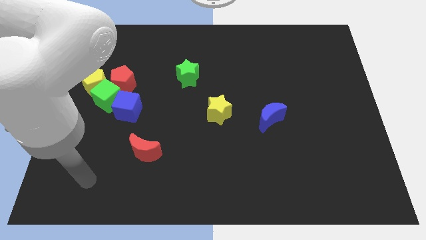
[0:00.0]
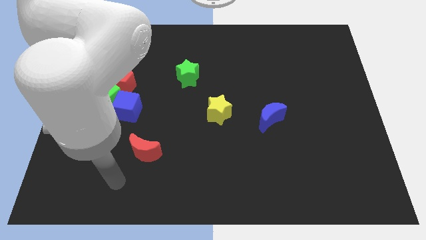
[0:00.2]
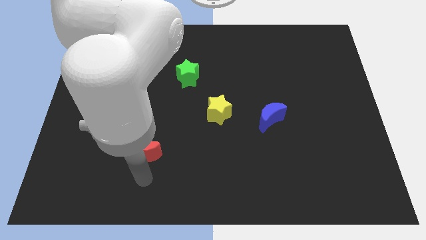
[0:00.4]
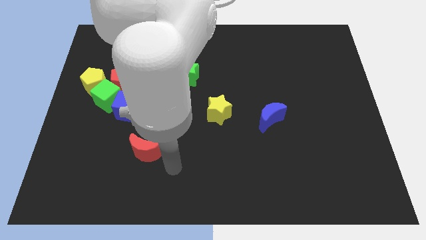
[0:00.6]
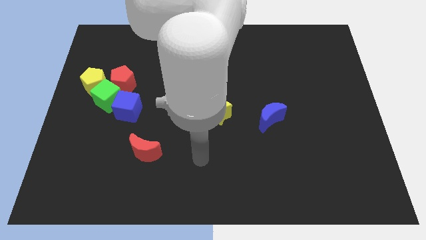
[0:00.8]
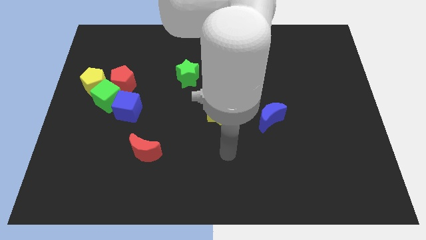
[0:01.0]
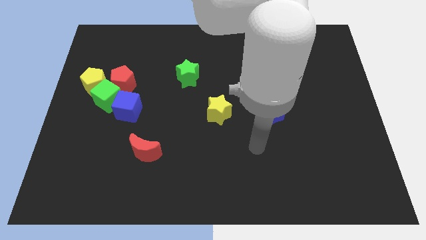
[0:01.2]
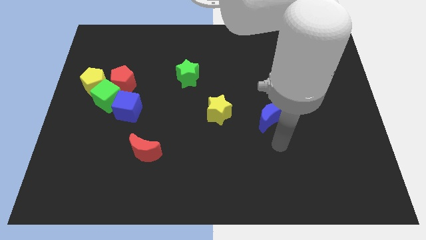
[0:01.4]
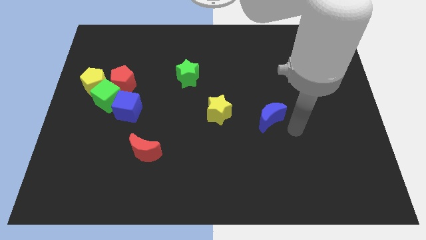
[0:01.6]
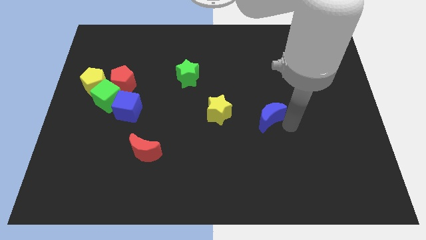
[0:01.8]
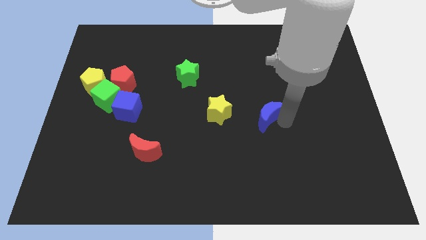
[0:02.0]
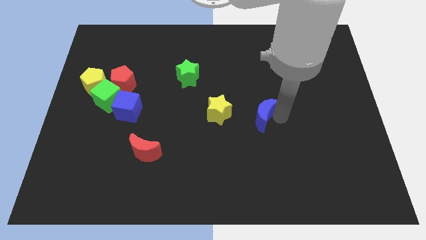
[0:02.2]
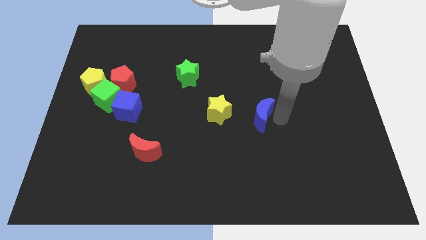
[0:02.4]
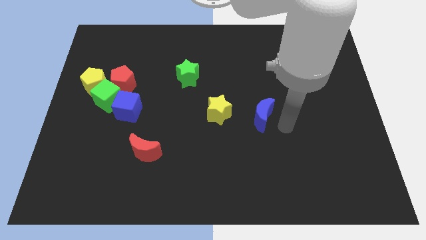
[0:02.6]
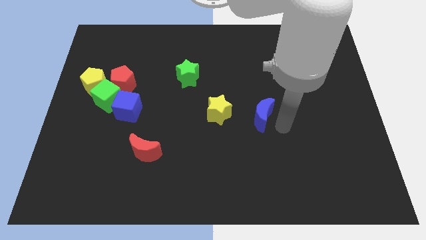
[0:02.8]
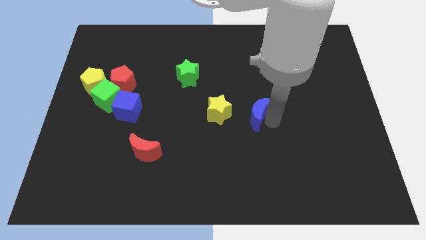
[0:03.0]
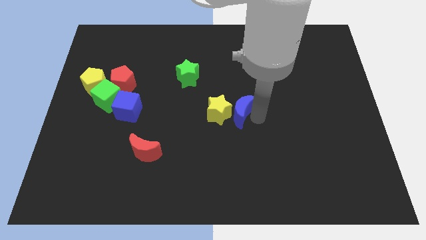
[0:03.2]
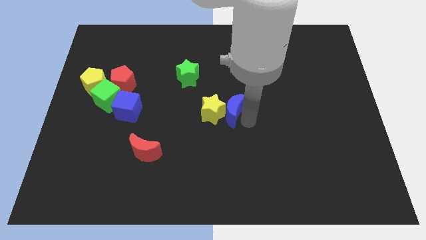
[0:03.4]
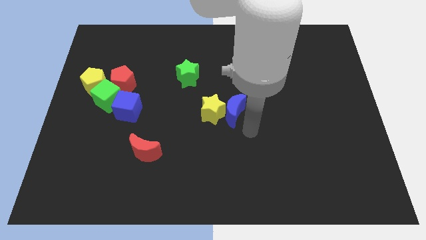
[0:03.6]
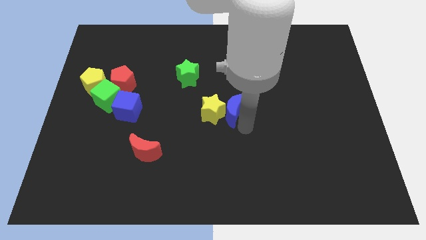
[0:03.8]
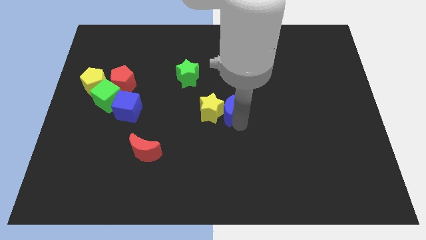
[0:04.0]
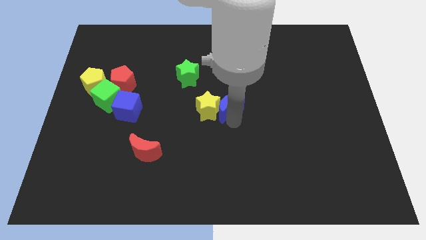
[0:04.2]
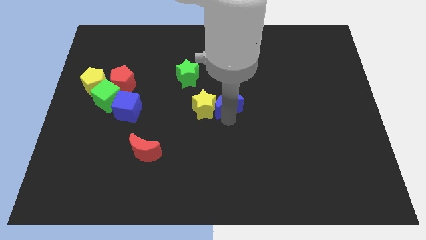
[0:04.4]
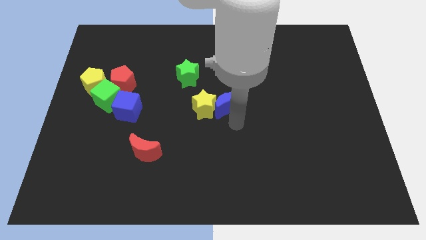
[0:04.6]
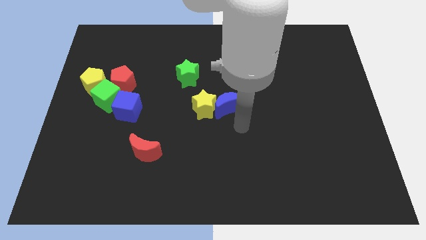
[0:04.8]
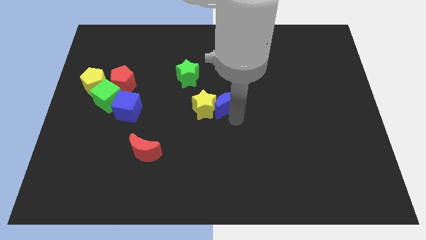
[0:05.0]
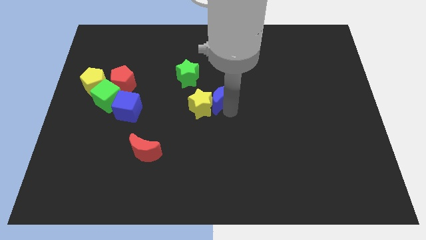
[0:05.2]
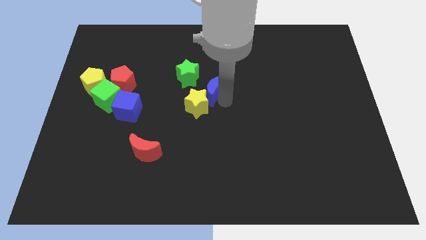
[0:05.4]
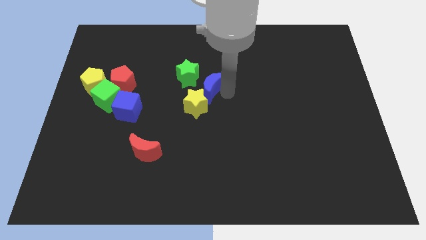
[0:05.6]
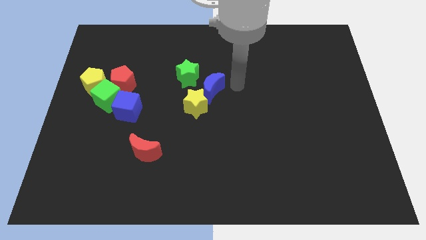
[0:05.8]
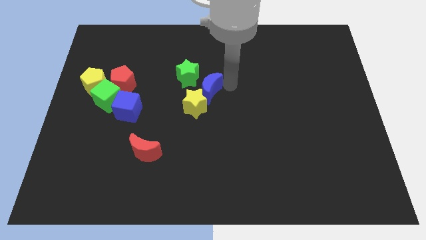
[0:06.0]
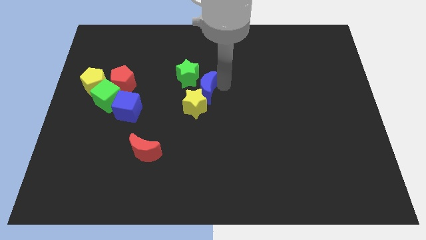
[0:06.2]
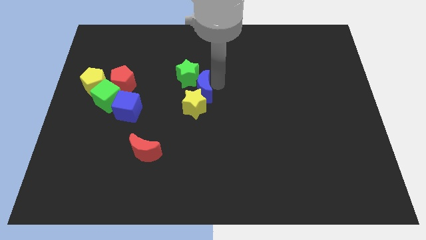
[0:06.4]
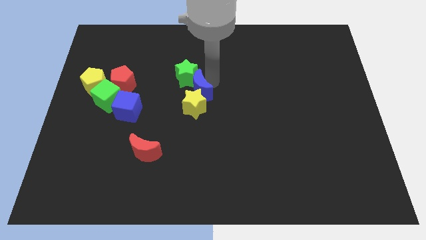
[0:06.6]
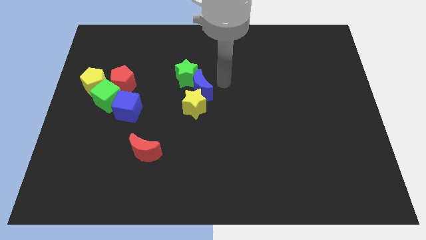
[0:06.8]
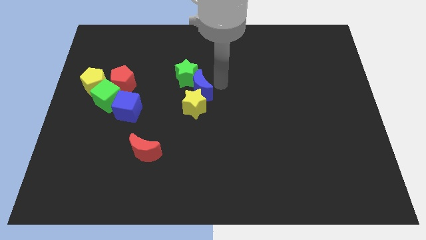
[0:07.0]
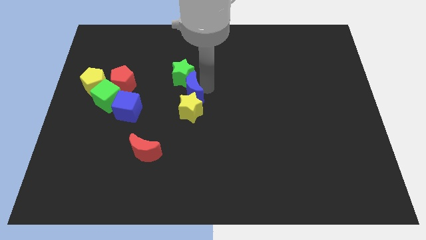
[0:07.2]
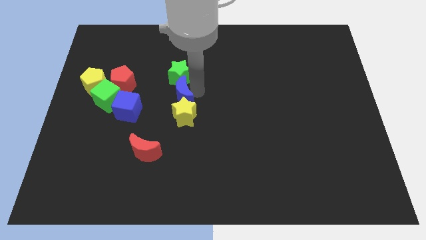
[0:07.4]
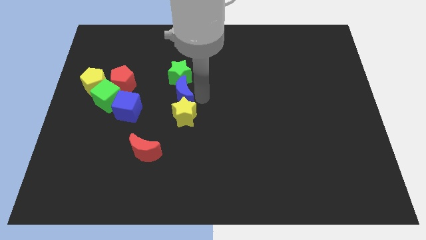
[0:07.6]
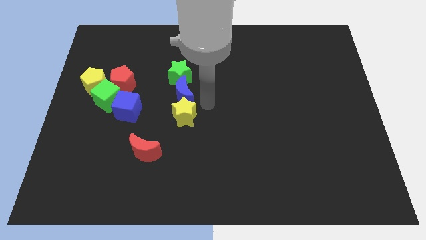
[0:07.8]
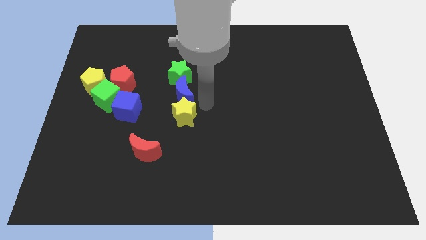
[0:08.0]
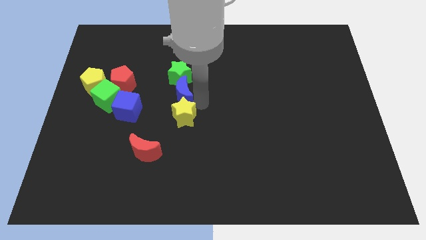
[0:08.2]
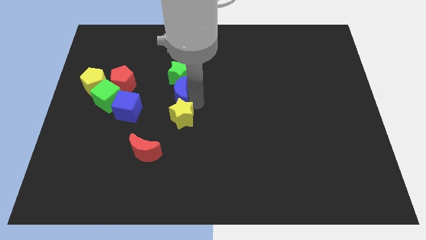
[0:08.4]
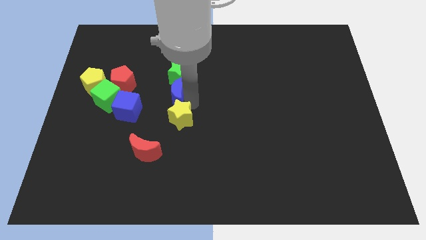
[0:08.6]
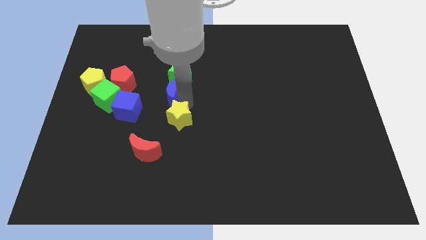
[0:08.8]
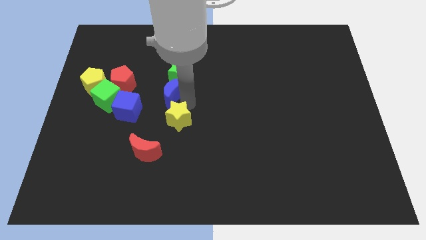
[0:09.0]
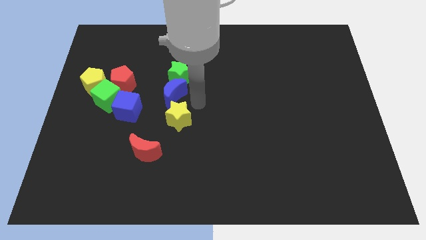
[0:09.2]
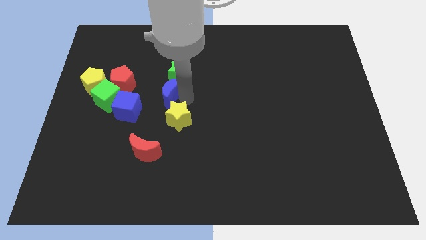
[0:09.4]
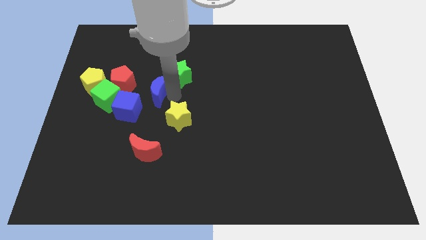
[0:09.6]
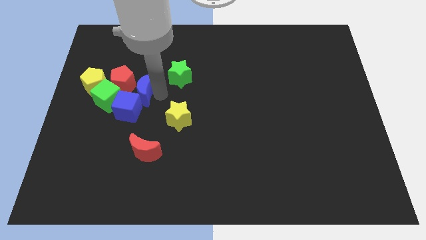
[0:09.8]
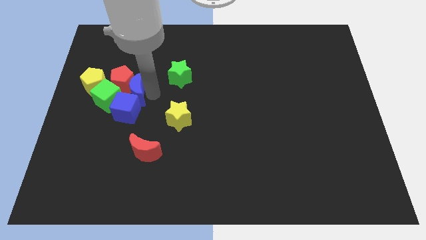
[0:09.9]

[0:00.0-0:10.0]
move the blue moon to the red pentagon

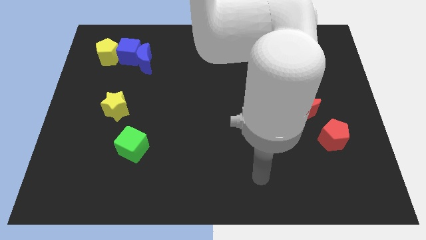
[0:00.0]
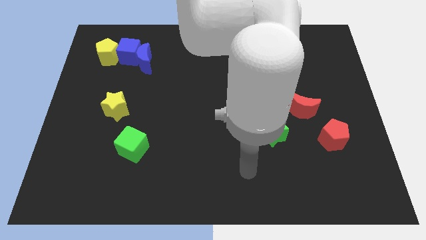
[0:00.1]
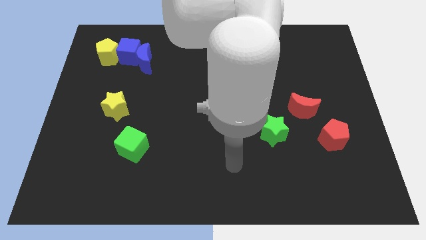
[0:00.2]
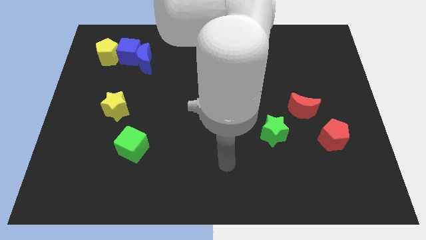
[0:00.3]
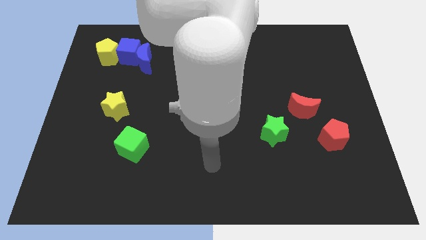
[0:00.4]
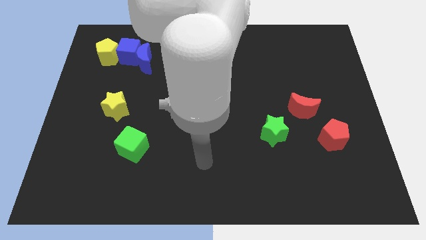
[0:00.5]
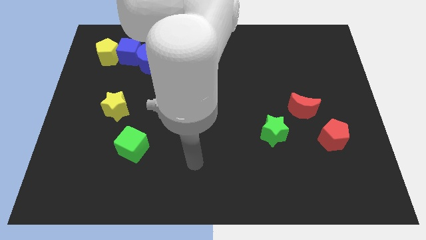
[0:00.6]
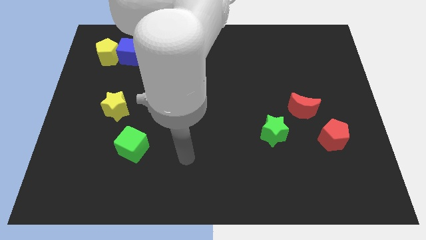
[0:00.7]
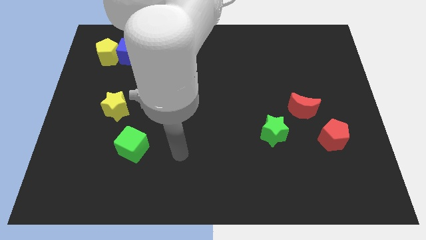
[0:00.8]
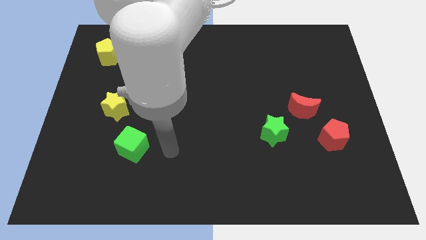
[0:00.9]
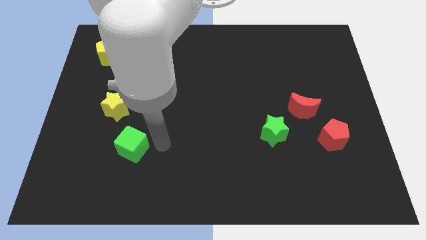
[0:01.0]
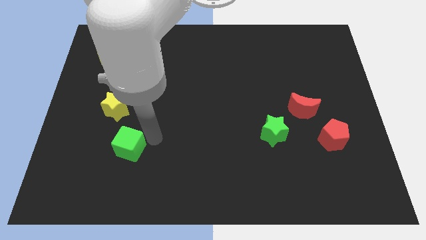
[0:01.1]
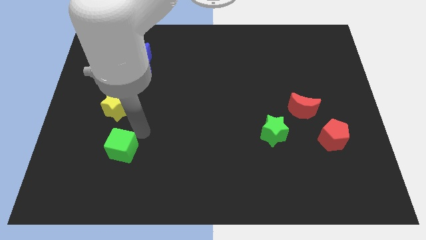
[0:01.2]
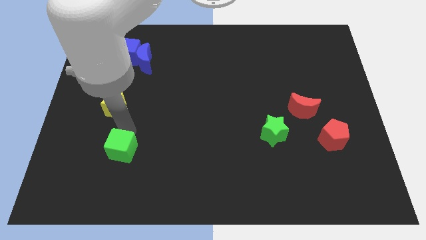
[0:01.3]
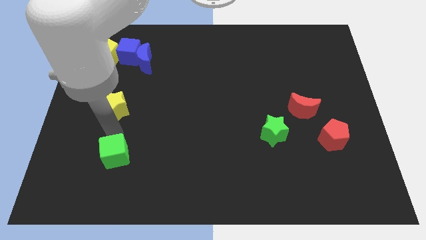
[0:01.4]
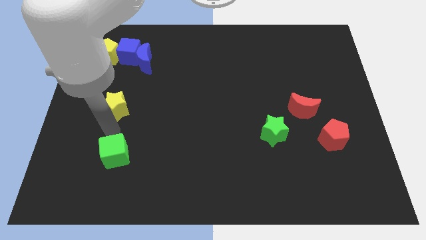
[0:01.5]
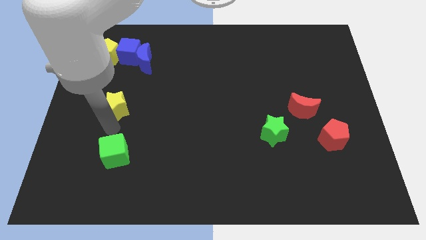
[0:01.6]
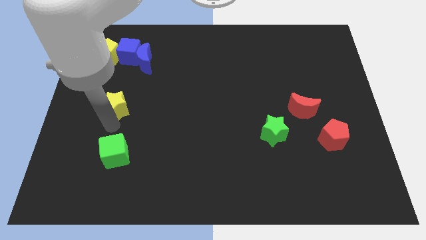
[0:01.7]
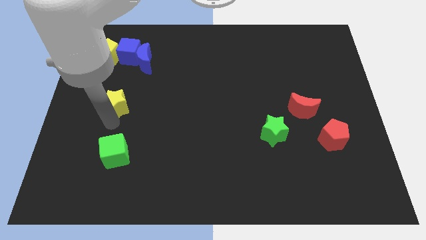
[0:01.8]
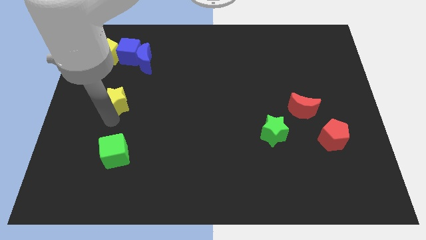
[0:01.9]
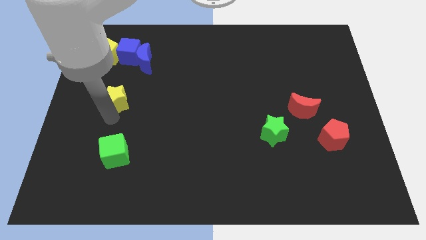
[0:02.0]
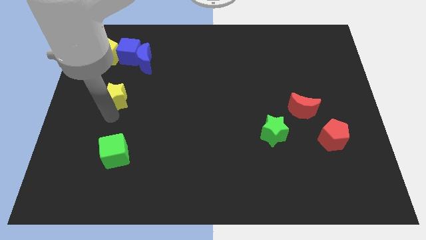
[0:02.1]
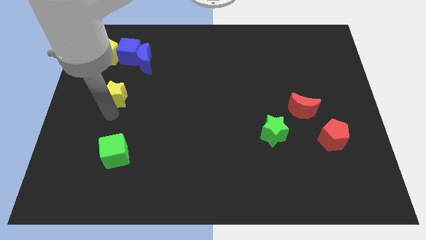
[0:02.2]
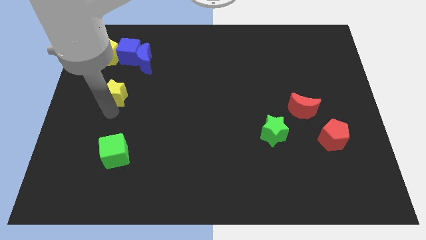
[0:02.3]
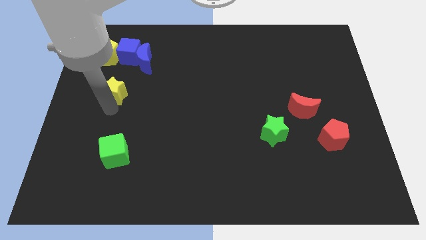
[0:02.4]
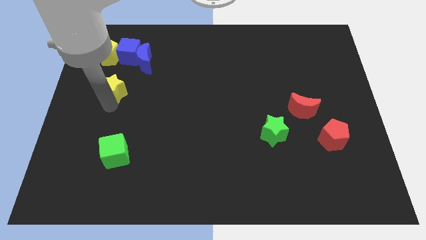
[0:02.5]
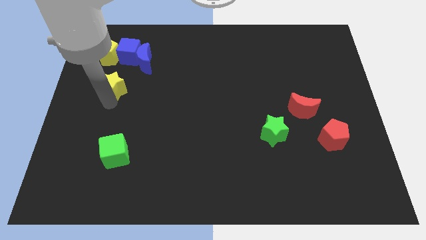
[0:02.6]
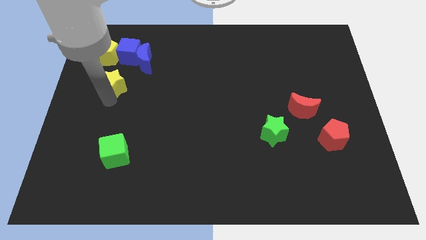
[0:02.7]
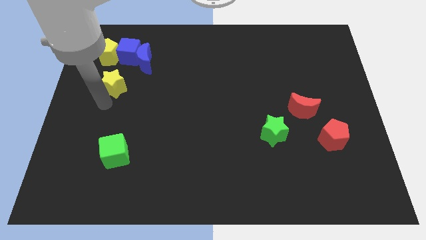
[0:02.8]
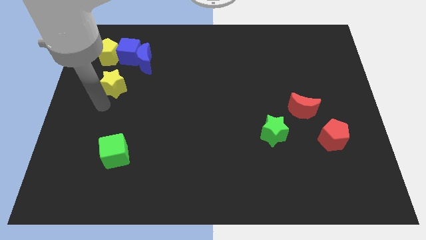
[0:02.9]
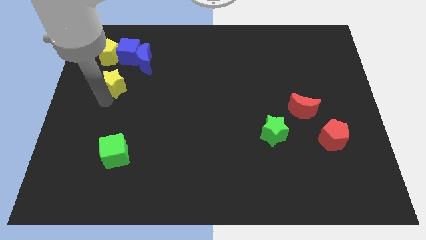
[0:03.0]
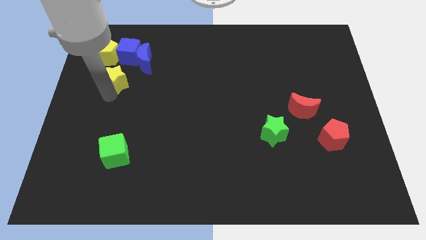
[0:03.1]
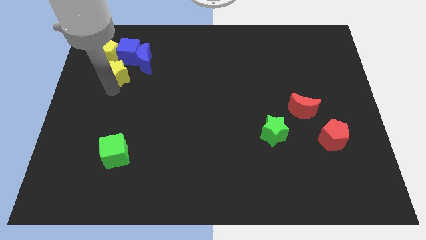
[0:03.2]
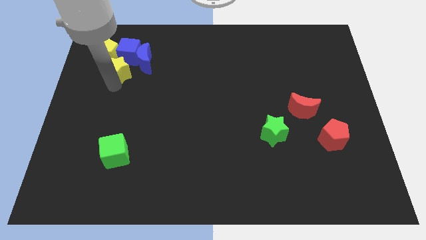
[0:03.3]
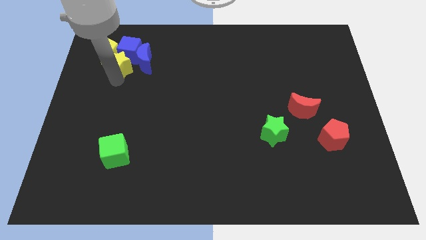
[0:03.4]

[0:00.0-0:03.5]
move the yellow star to the blue cube
